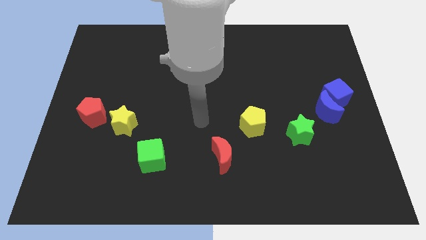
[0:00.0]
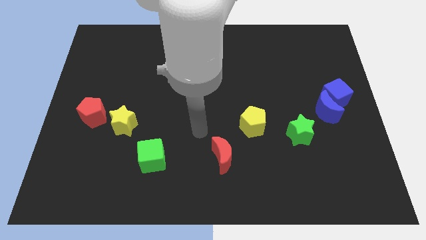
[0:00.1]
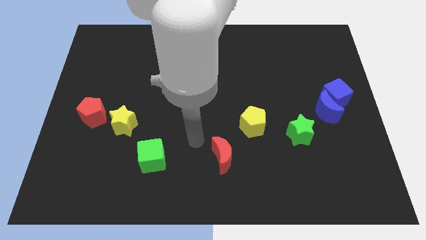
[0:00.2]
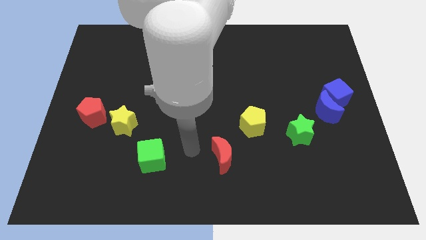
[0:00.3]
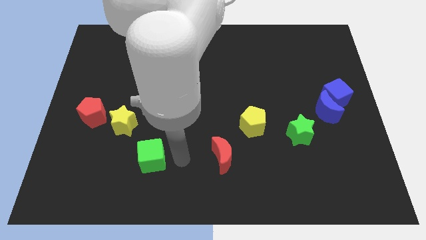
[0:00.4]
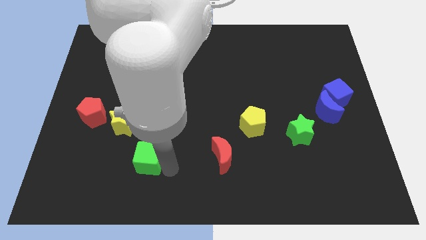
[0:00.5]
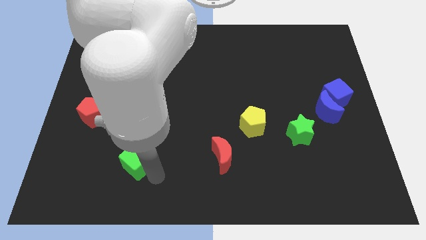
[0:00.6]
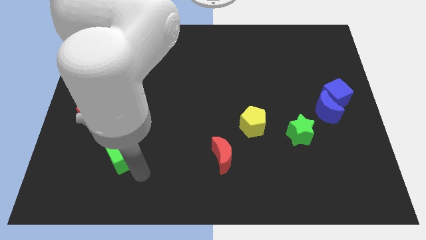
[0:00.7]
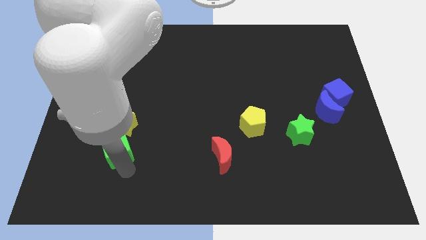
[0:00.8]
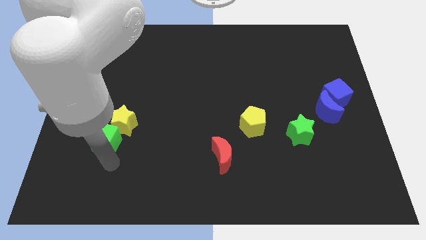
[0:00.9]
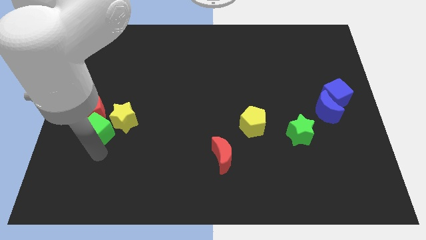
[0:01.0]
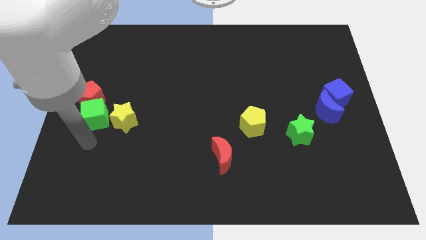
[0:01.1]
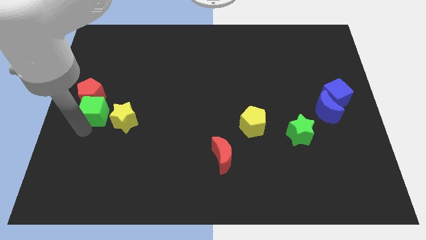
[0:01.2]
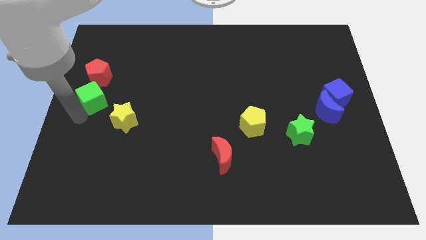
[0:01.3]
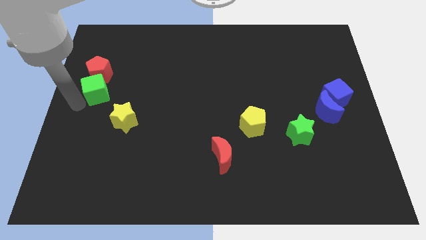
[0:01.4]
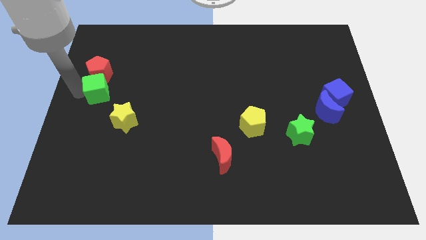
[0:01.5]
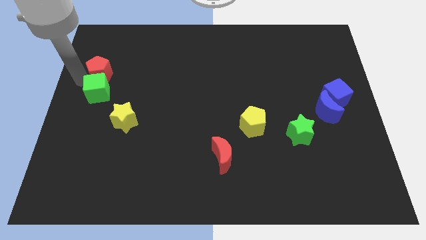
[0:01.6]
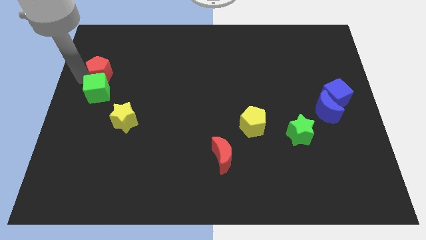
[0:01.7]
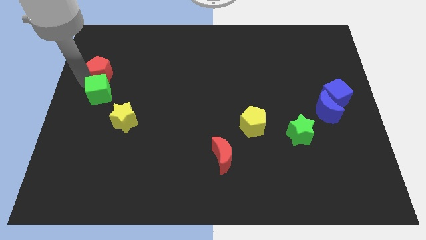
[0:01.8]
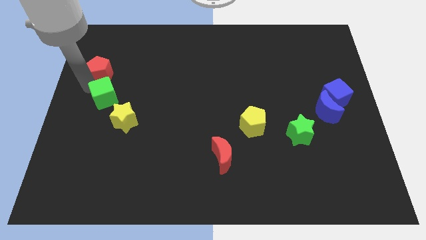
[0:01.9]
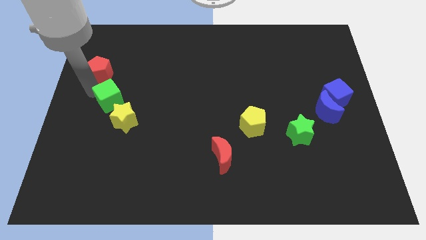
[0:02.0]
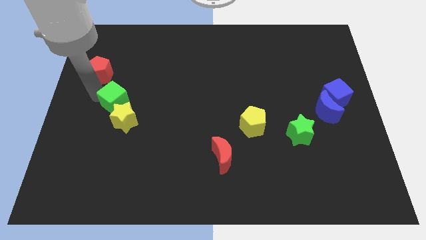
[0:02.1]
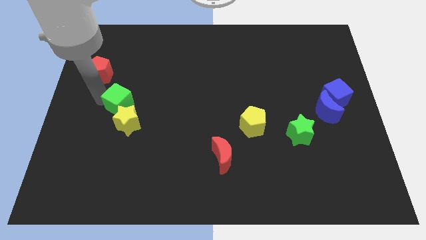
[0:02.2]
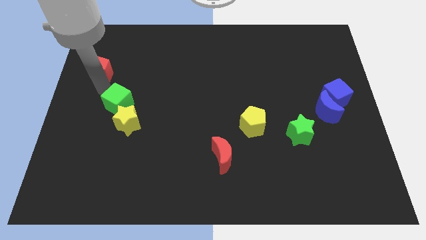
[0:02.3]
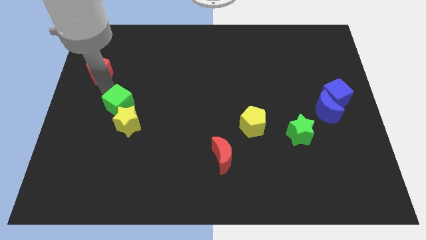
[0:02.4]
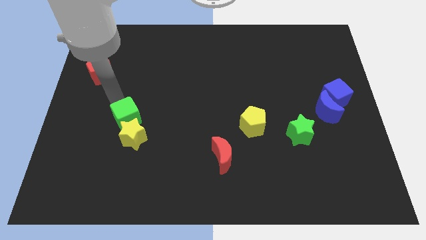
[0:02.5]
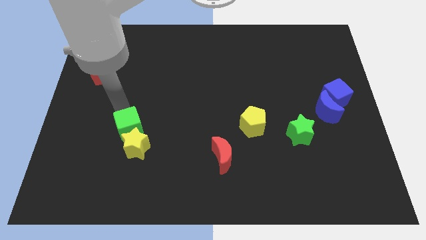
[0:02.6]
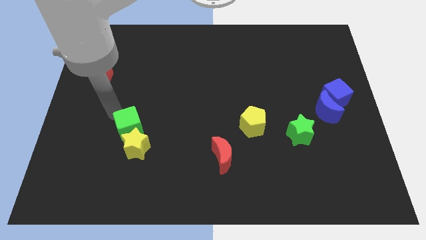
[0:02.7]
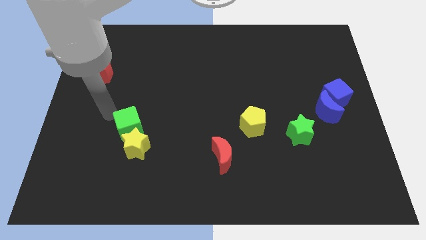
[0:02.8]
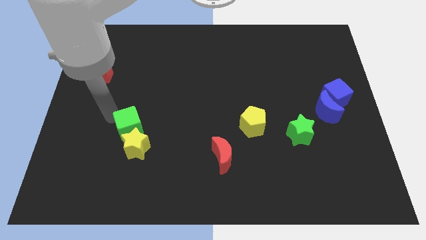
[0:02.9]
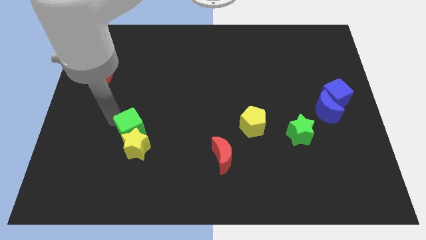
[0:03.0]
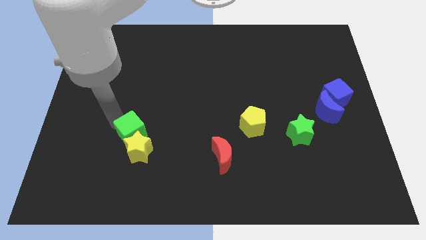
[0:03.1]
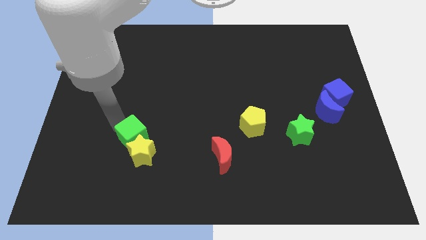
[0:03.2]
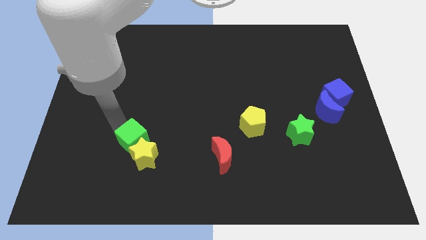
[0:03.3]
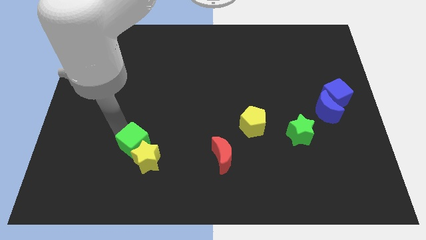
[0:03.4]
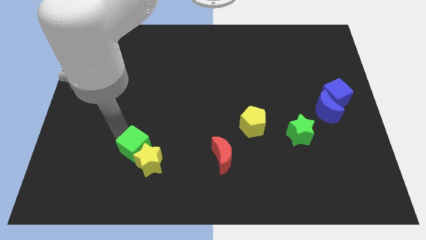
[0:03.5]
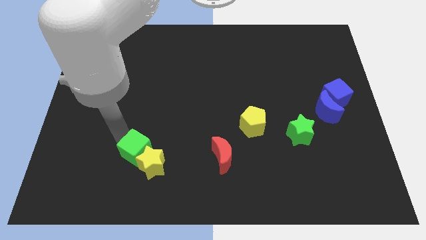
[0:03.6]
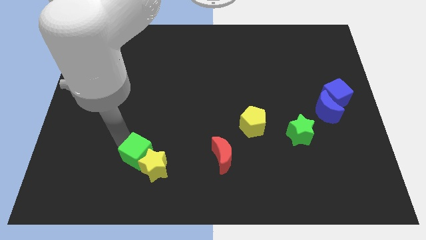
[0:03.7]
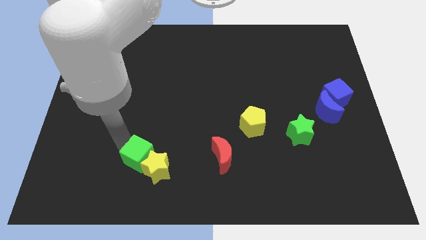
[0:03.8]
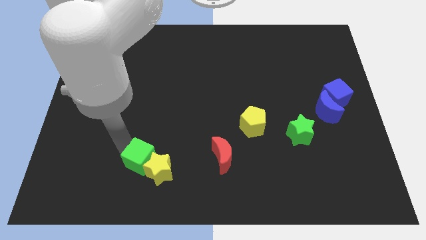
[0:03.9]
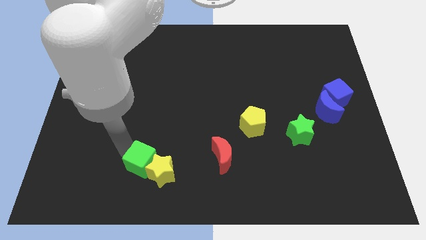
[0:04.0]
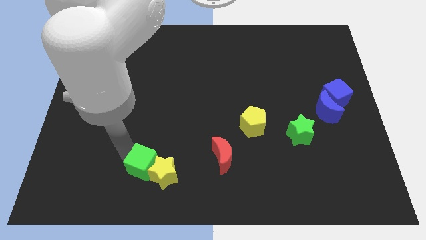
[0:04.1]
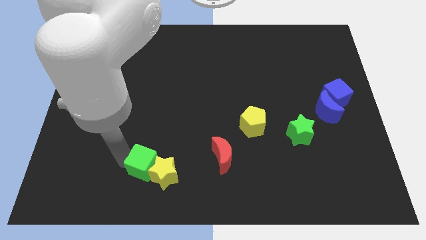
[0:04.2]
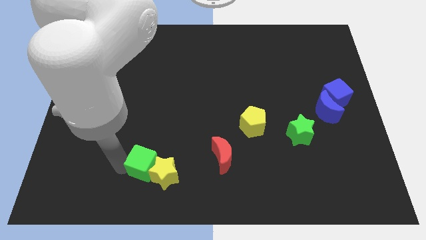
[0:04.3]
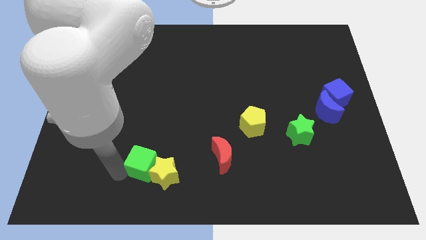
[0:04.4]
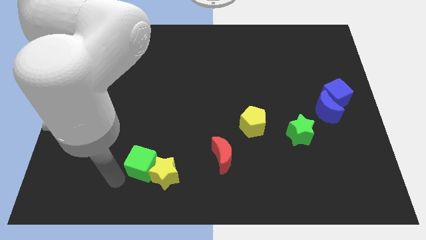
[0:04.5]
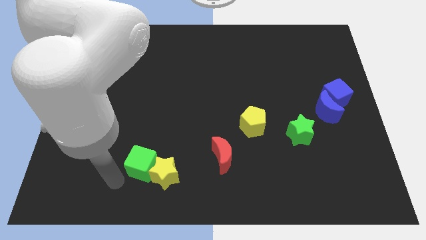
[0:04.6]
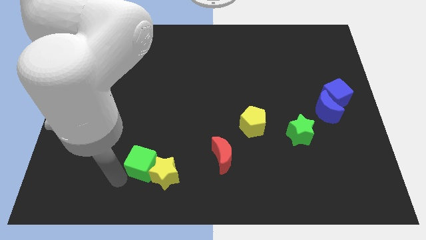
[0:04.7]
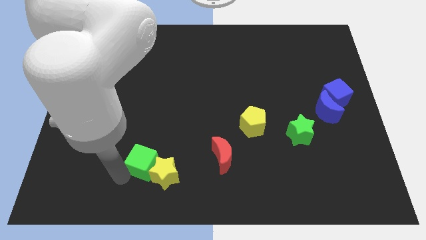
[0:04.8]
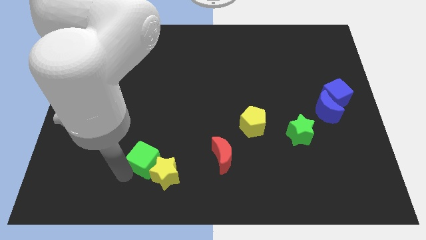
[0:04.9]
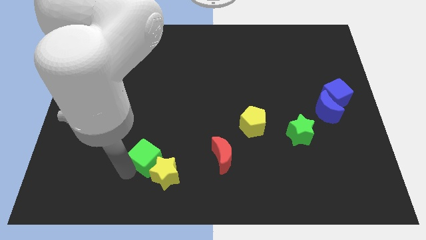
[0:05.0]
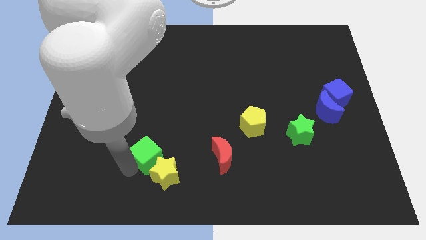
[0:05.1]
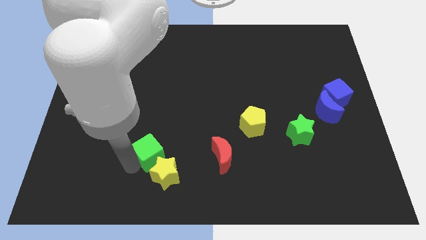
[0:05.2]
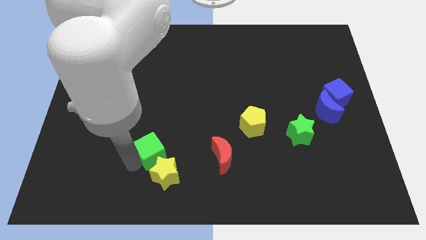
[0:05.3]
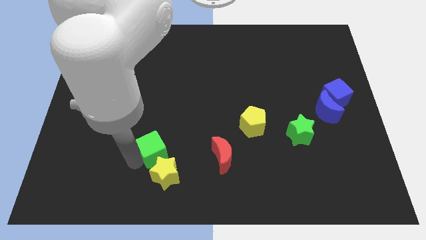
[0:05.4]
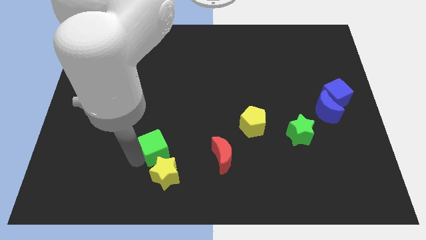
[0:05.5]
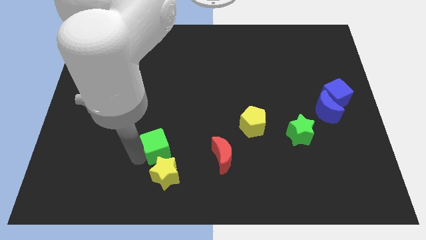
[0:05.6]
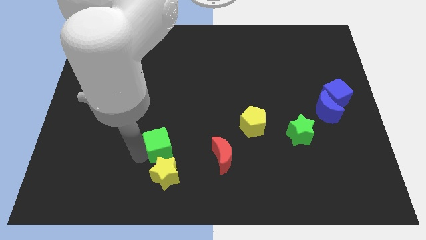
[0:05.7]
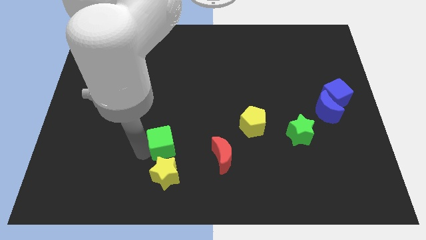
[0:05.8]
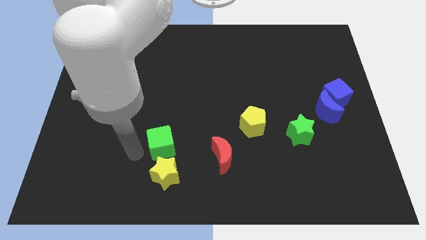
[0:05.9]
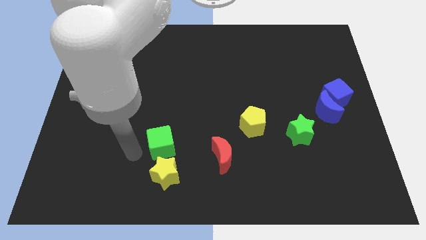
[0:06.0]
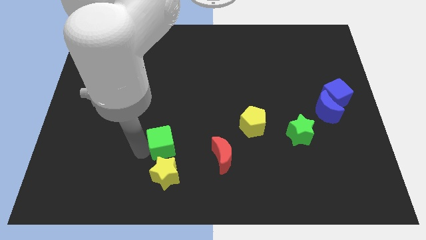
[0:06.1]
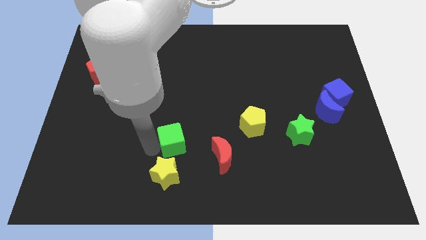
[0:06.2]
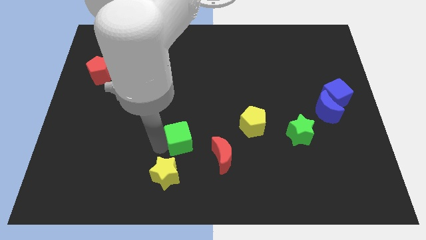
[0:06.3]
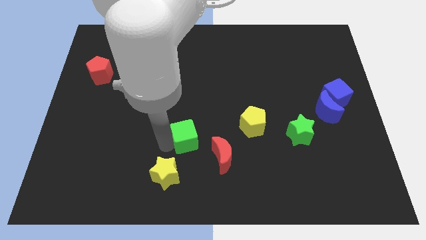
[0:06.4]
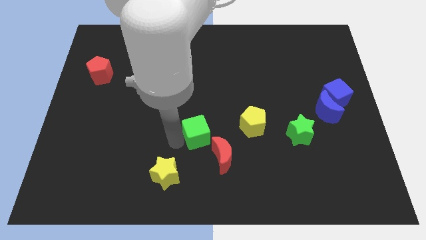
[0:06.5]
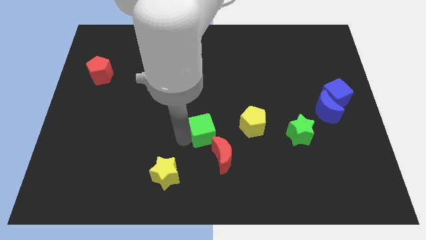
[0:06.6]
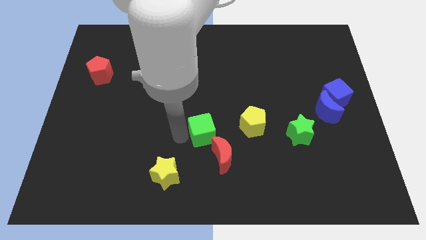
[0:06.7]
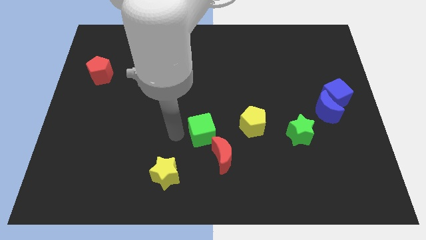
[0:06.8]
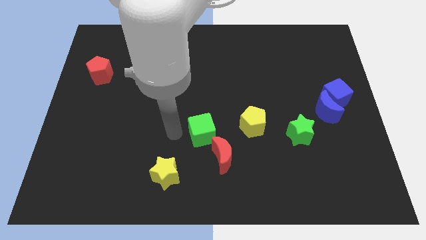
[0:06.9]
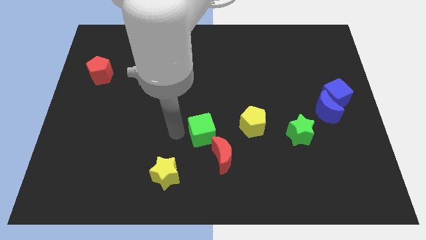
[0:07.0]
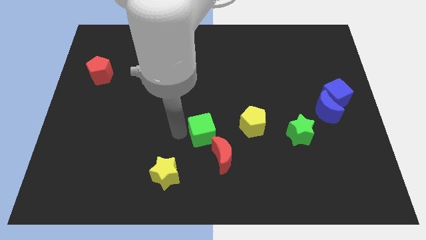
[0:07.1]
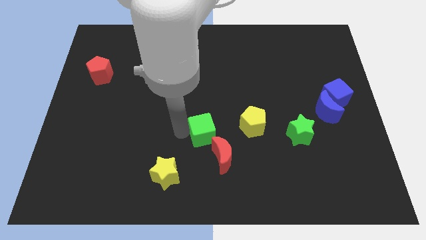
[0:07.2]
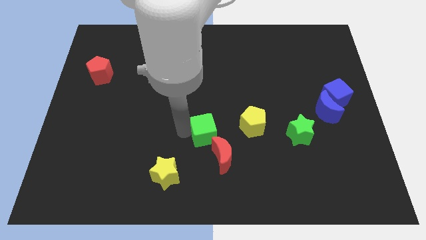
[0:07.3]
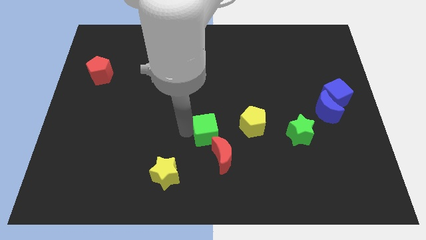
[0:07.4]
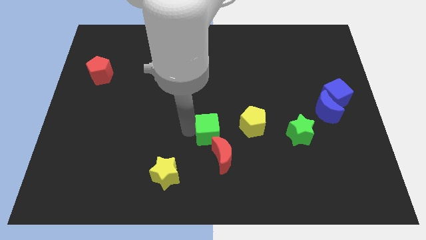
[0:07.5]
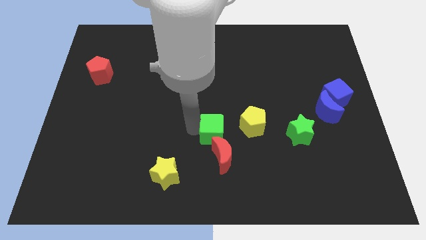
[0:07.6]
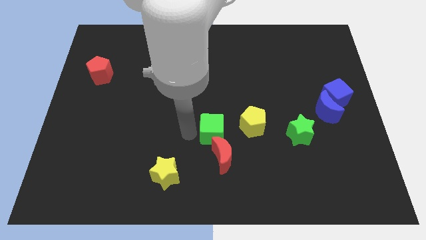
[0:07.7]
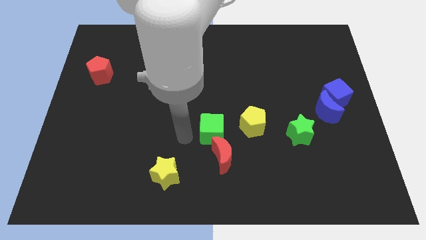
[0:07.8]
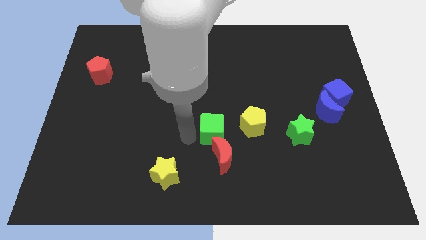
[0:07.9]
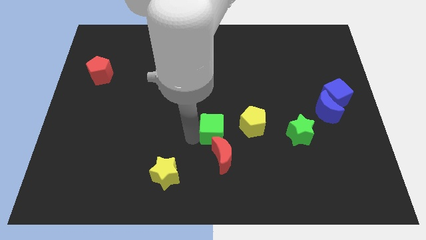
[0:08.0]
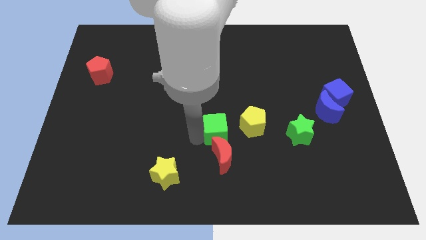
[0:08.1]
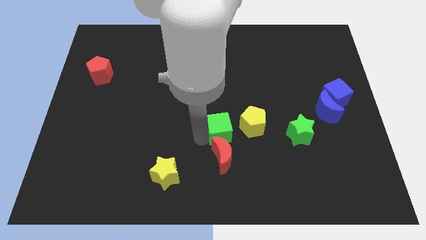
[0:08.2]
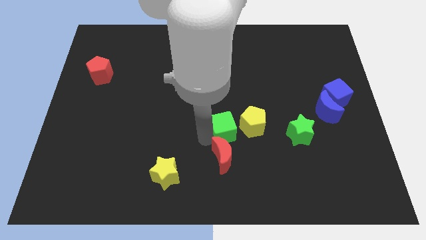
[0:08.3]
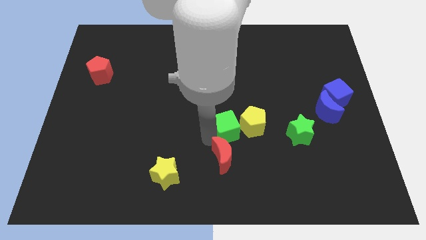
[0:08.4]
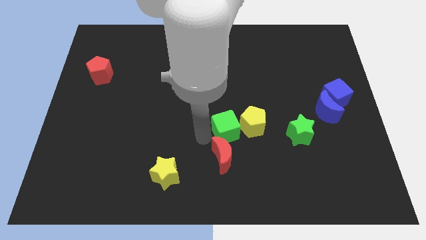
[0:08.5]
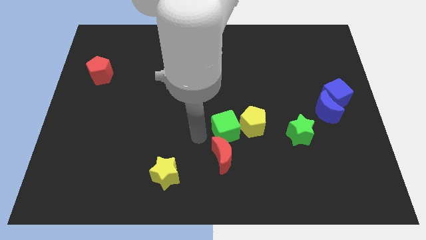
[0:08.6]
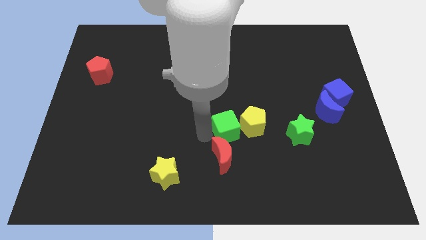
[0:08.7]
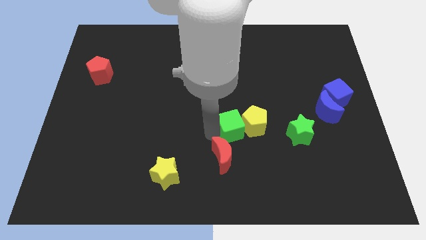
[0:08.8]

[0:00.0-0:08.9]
put the green cube close to the yellow pentagon
